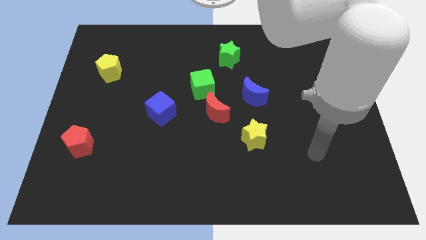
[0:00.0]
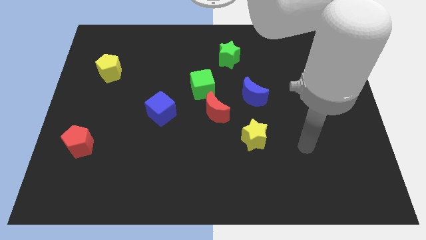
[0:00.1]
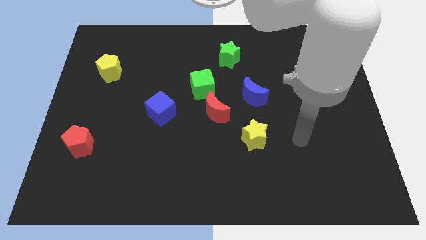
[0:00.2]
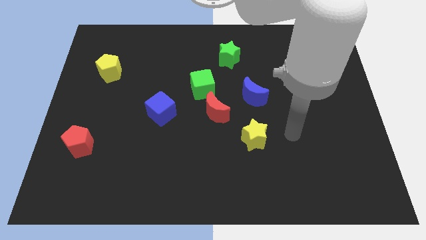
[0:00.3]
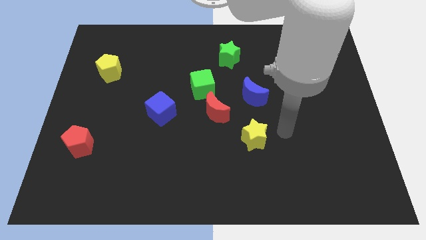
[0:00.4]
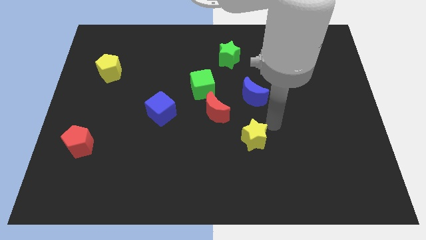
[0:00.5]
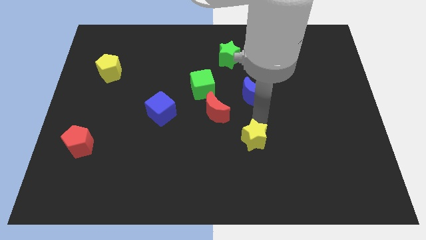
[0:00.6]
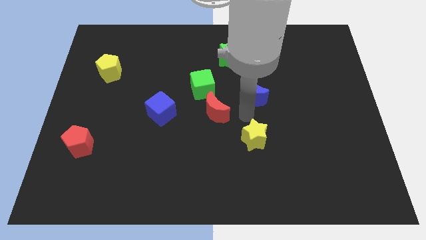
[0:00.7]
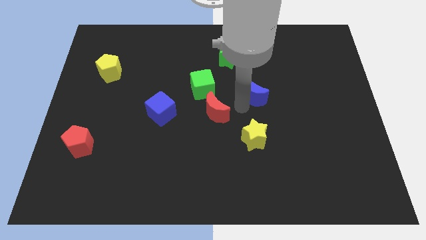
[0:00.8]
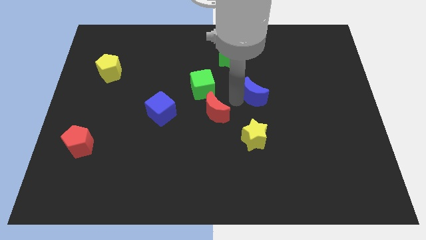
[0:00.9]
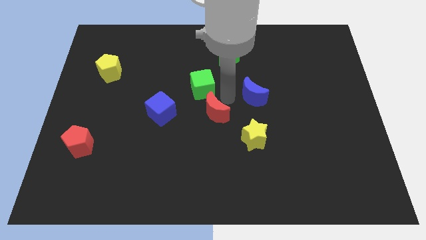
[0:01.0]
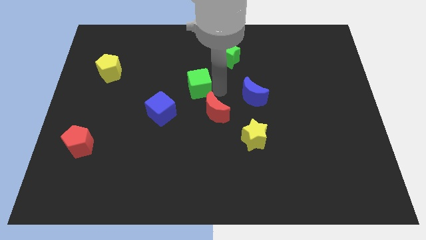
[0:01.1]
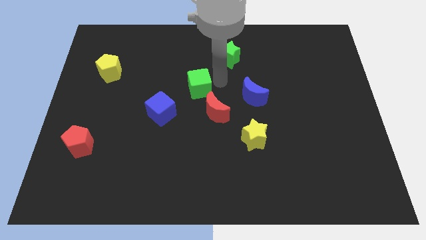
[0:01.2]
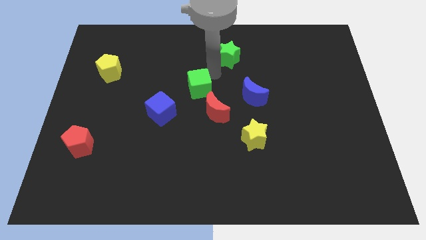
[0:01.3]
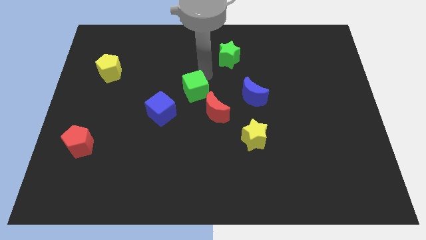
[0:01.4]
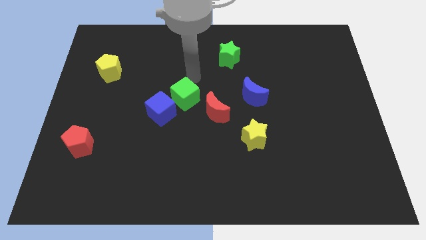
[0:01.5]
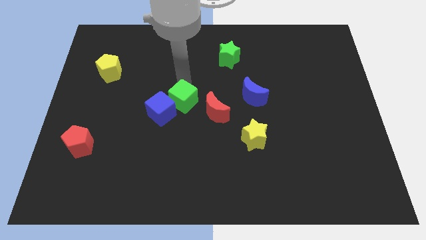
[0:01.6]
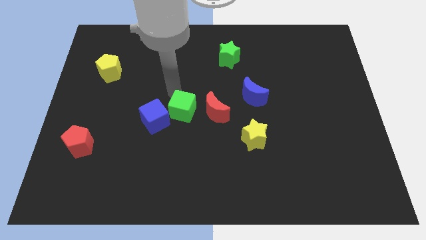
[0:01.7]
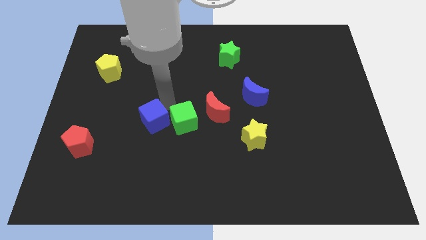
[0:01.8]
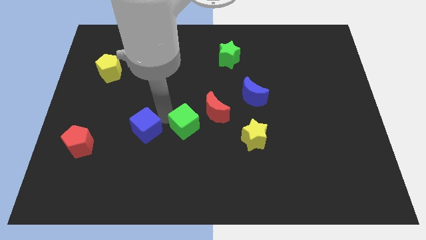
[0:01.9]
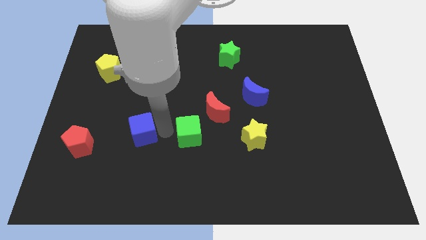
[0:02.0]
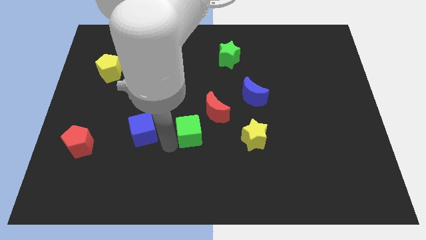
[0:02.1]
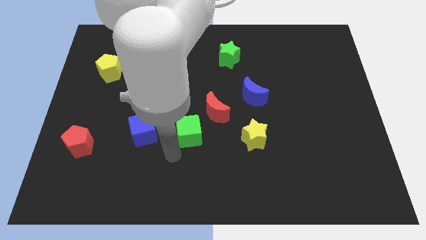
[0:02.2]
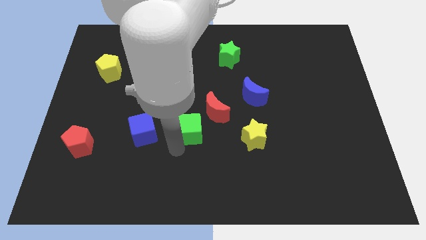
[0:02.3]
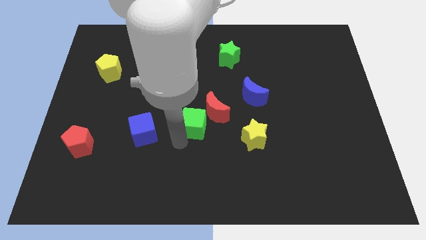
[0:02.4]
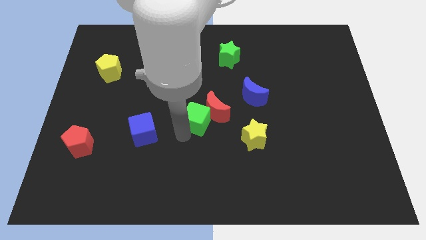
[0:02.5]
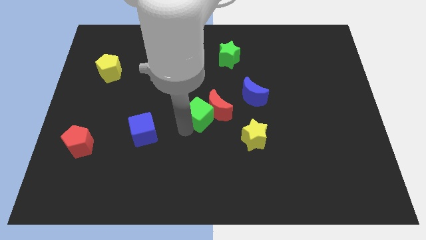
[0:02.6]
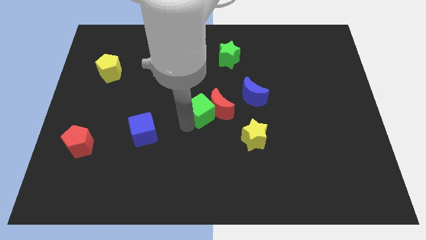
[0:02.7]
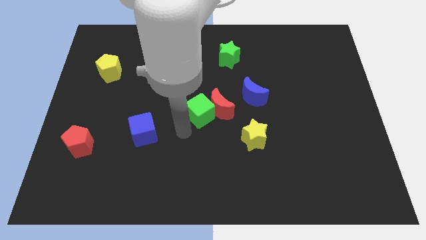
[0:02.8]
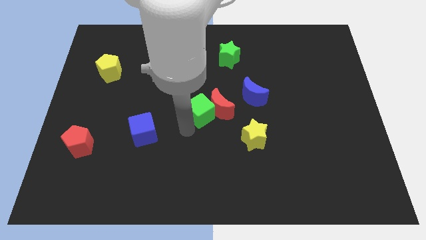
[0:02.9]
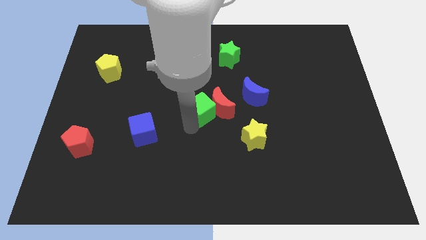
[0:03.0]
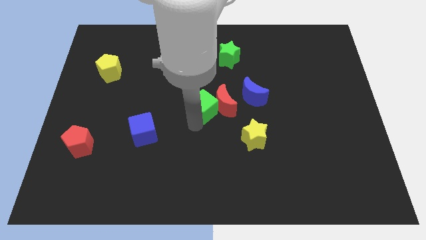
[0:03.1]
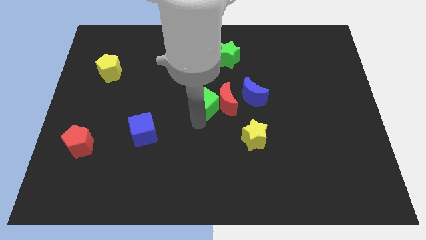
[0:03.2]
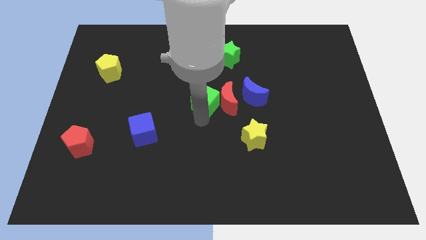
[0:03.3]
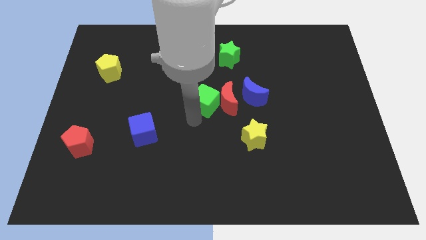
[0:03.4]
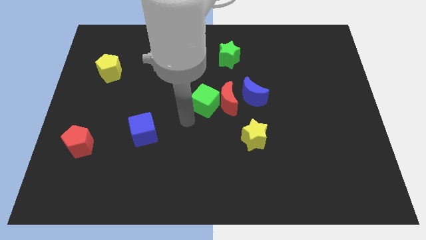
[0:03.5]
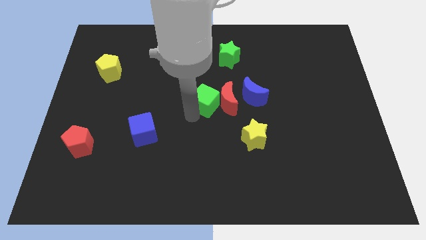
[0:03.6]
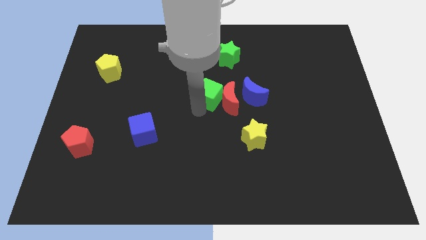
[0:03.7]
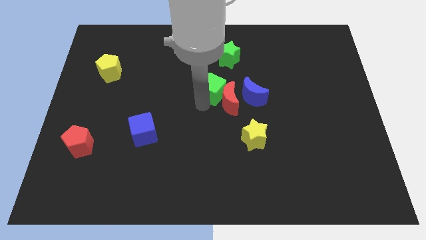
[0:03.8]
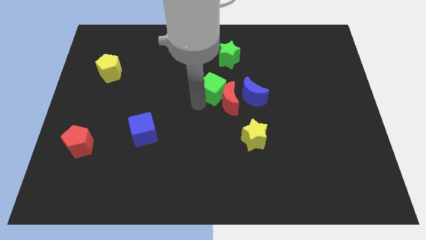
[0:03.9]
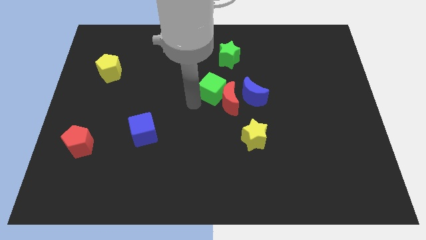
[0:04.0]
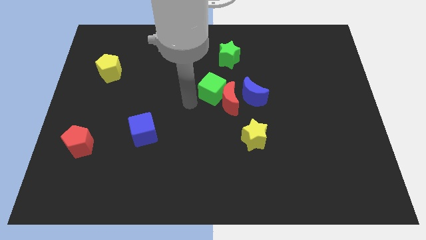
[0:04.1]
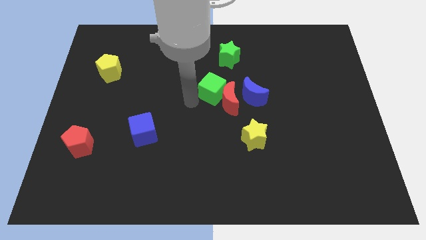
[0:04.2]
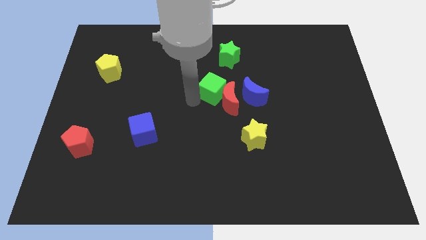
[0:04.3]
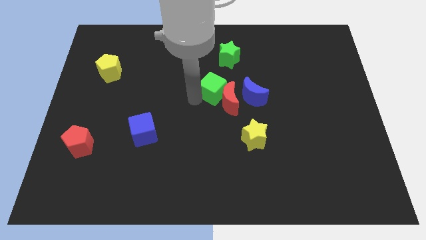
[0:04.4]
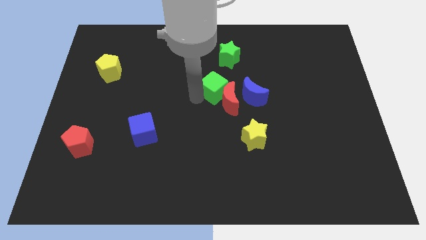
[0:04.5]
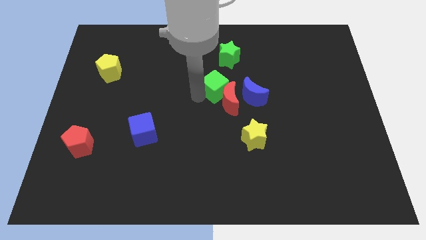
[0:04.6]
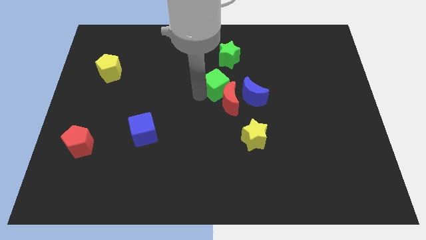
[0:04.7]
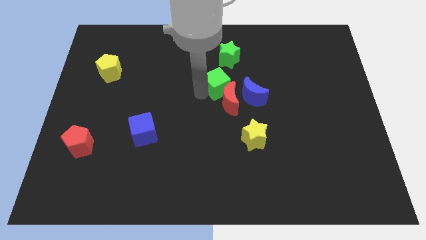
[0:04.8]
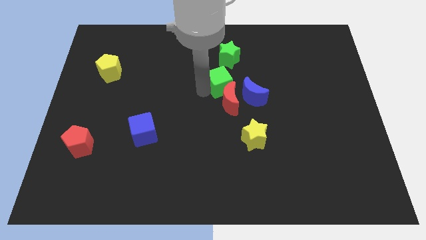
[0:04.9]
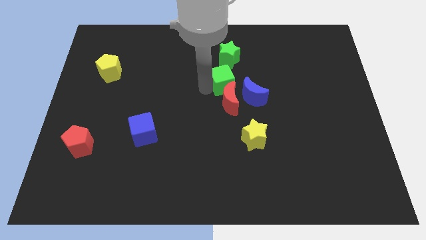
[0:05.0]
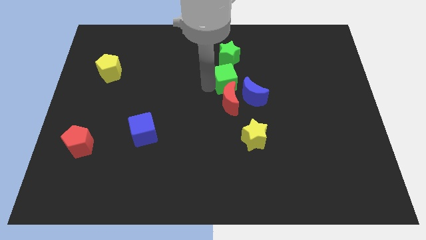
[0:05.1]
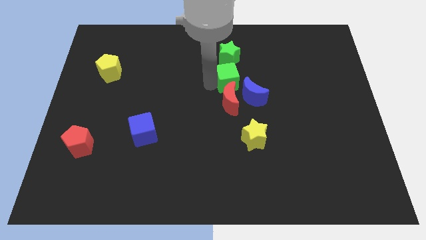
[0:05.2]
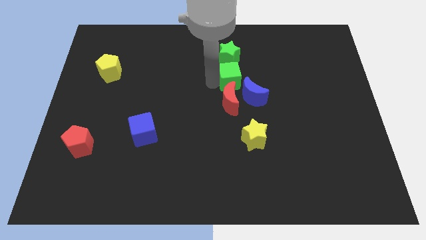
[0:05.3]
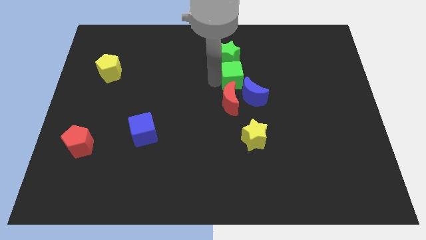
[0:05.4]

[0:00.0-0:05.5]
push the green cube a little right

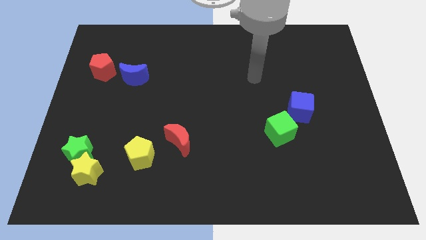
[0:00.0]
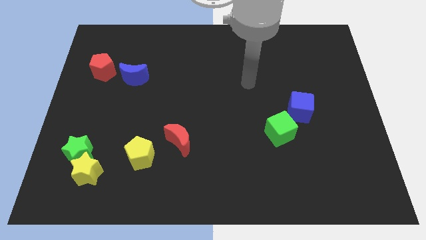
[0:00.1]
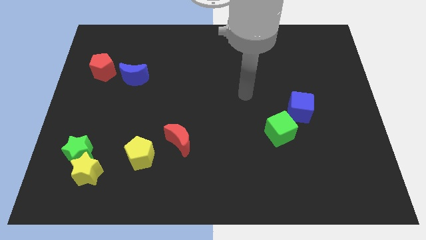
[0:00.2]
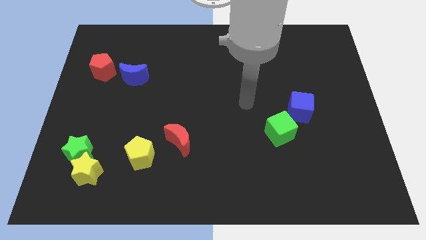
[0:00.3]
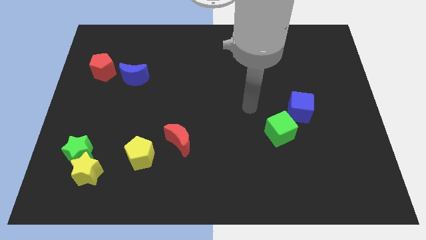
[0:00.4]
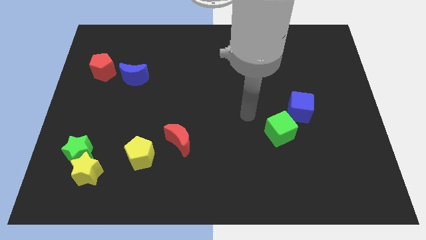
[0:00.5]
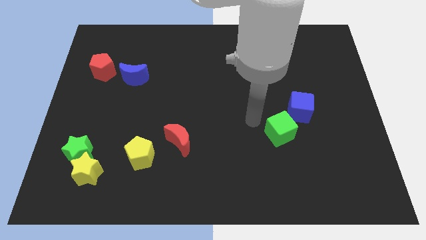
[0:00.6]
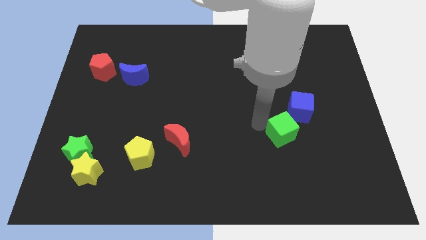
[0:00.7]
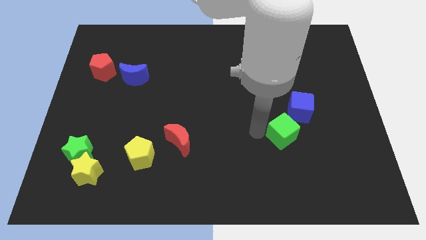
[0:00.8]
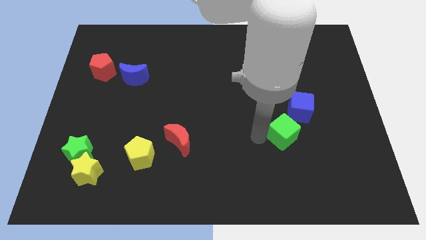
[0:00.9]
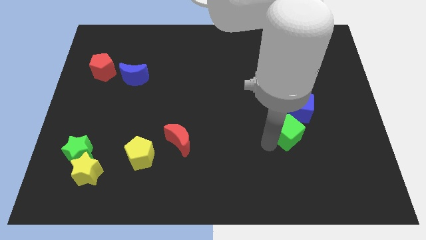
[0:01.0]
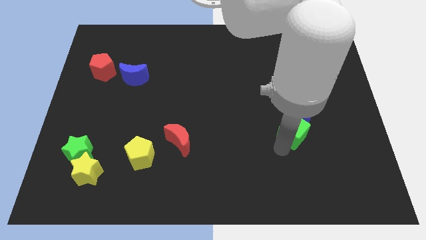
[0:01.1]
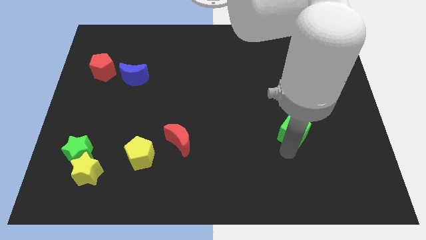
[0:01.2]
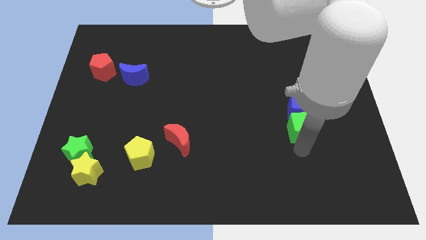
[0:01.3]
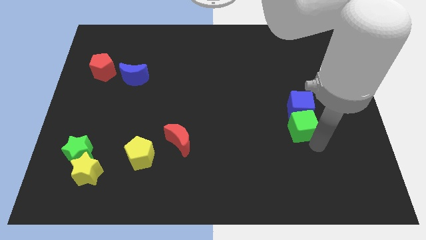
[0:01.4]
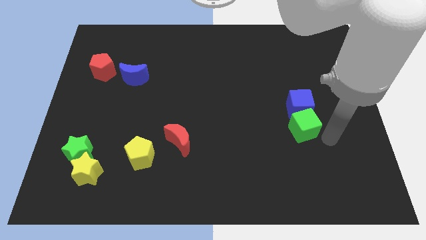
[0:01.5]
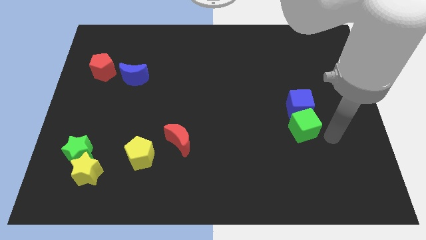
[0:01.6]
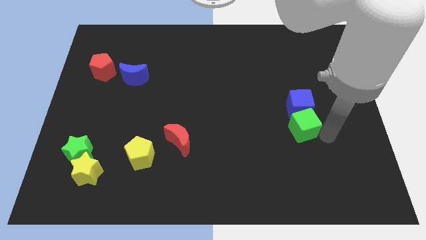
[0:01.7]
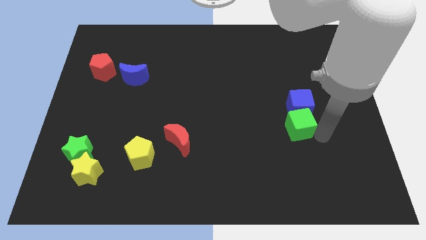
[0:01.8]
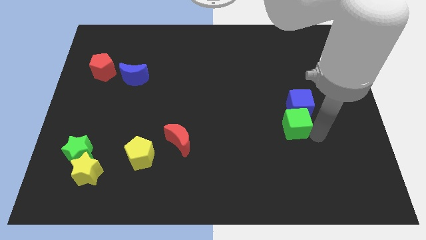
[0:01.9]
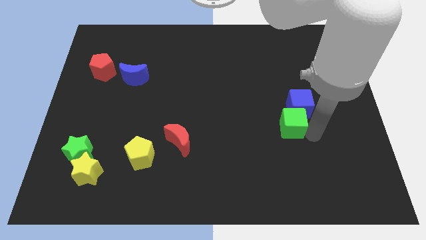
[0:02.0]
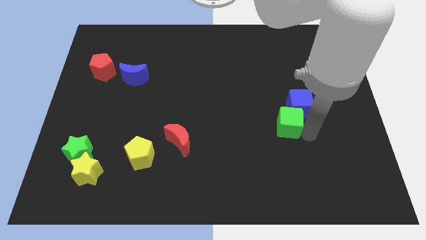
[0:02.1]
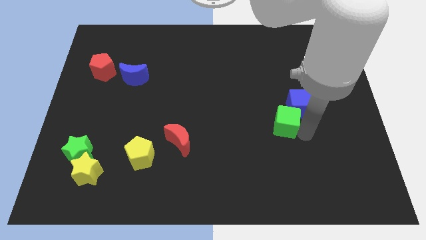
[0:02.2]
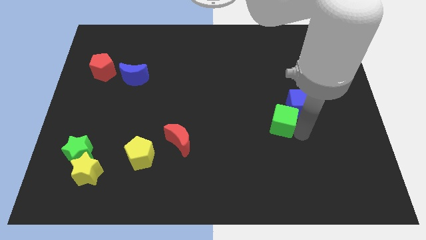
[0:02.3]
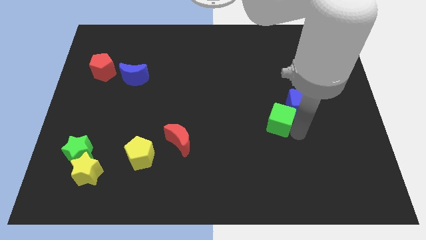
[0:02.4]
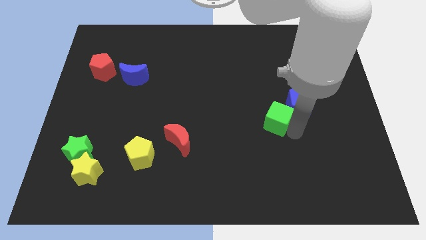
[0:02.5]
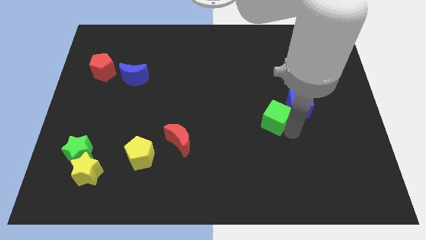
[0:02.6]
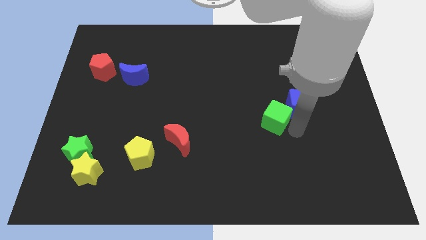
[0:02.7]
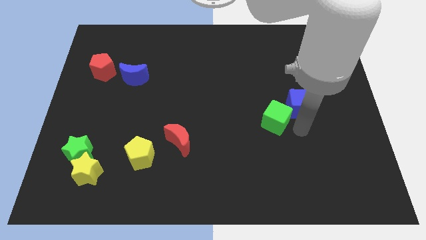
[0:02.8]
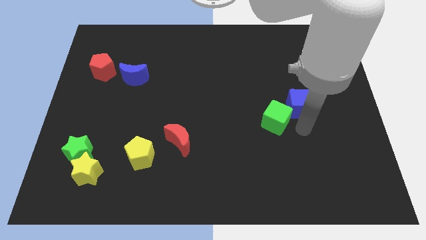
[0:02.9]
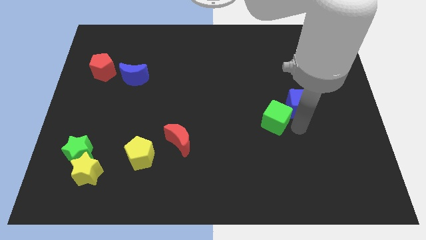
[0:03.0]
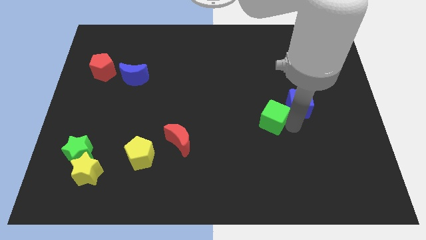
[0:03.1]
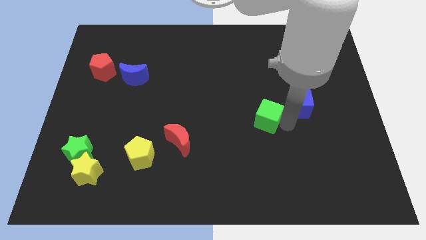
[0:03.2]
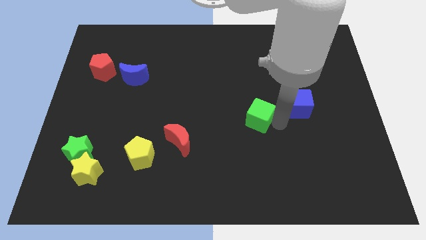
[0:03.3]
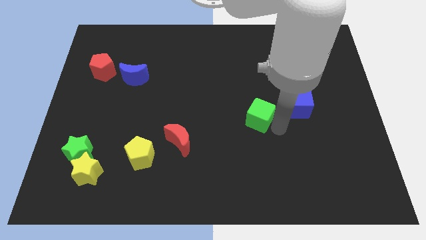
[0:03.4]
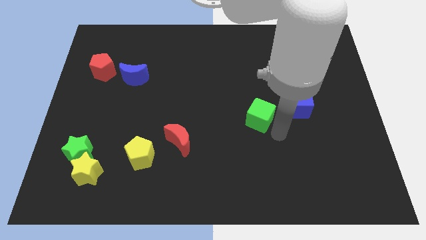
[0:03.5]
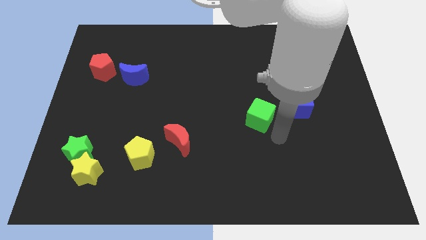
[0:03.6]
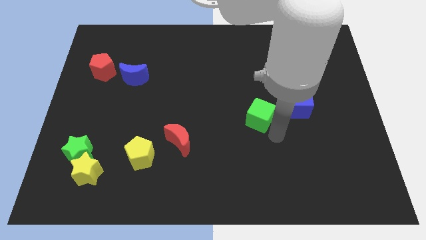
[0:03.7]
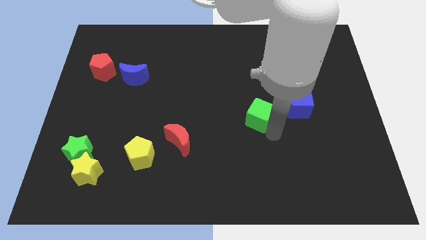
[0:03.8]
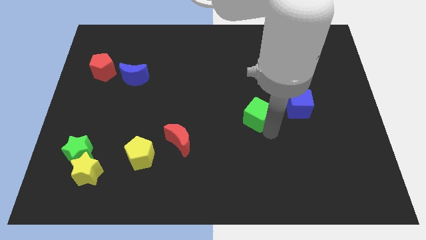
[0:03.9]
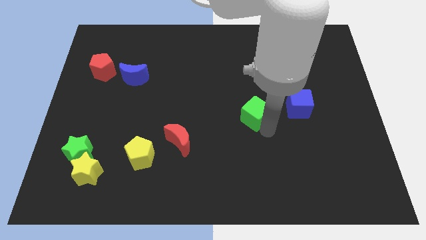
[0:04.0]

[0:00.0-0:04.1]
push the green cube a little up and to the left
